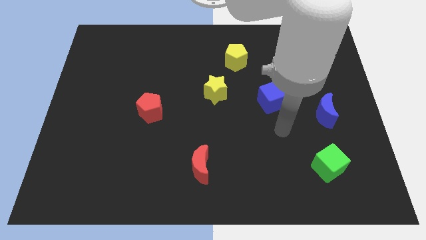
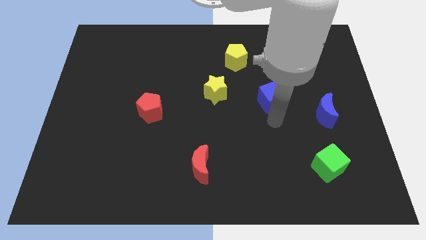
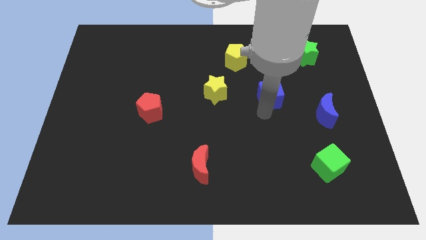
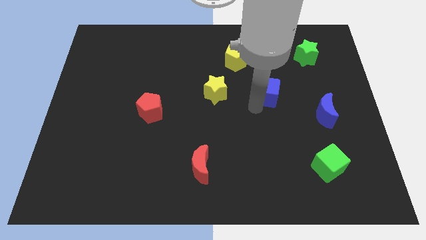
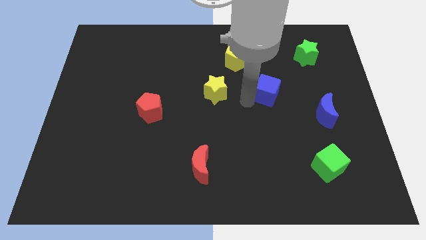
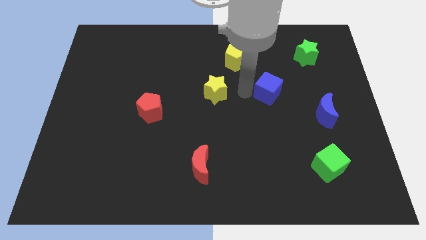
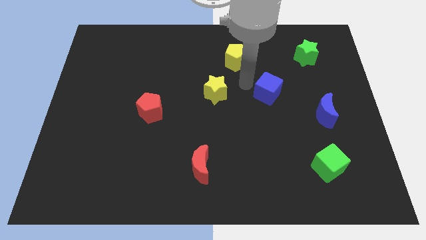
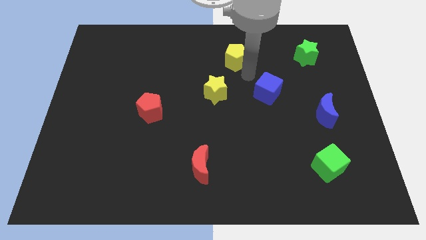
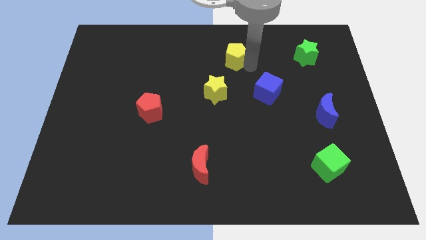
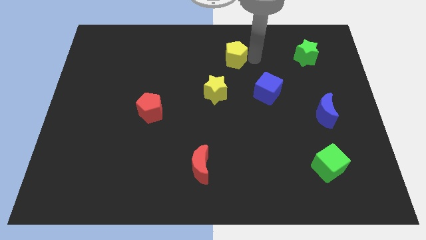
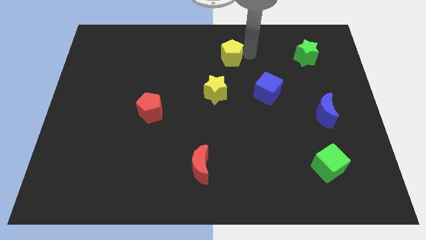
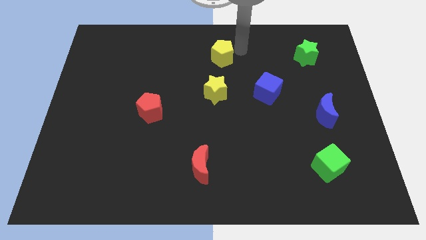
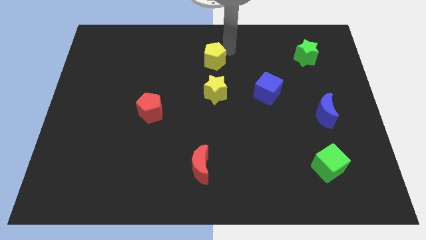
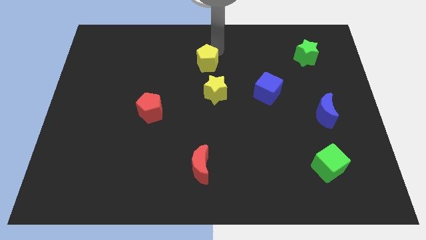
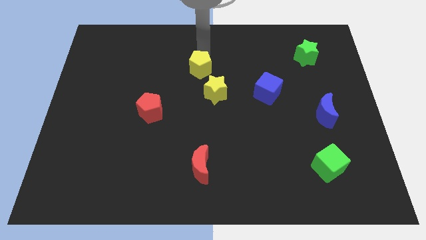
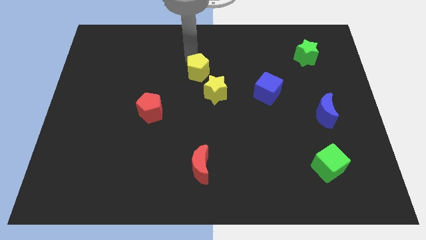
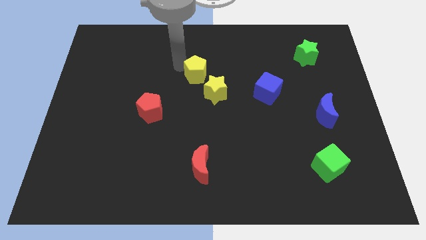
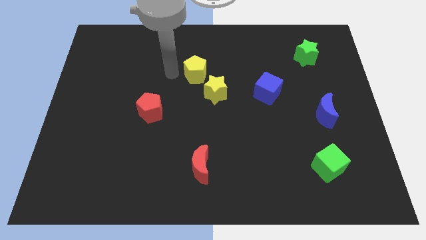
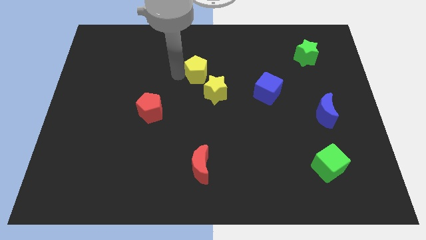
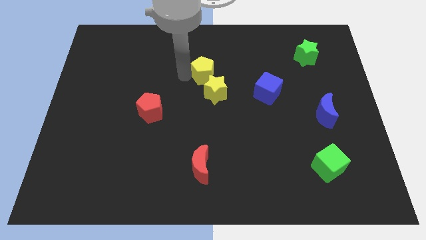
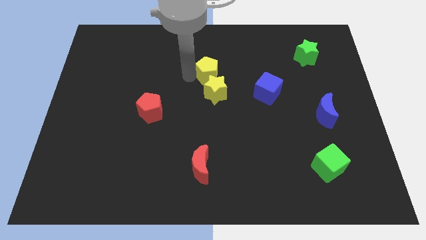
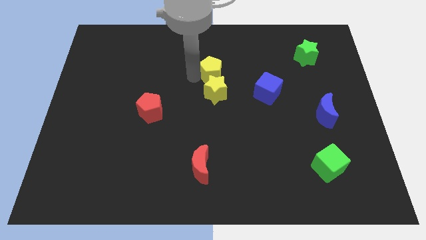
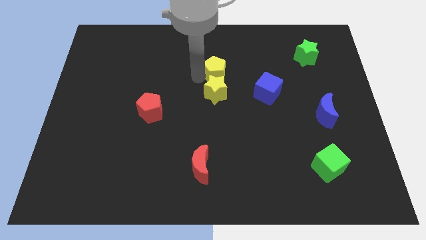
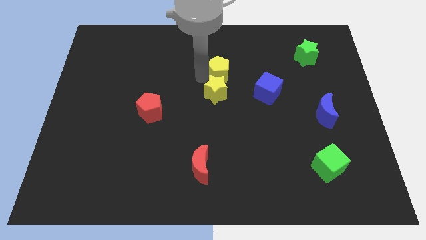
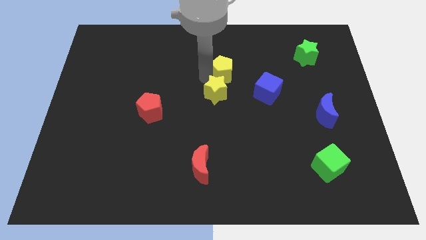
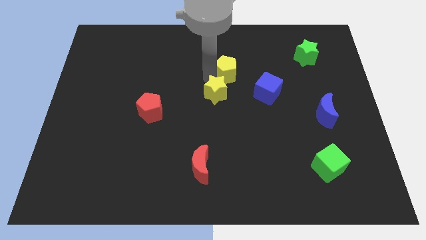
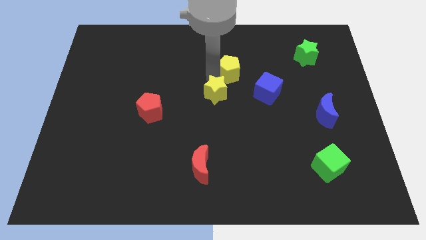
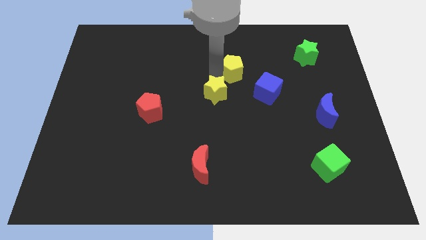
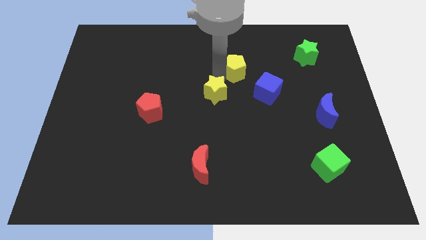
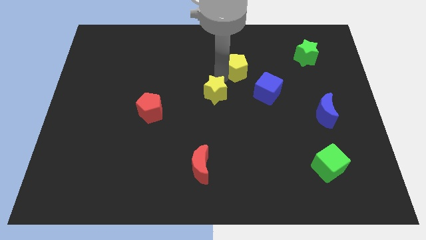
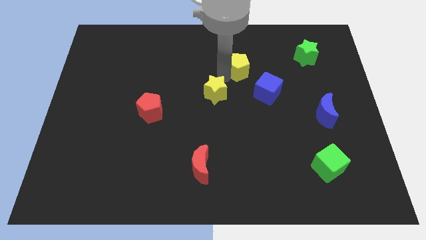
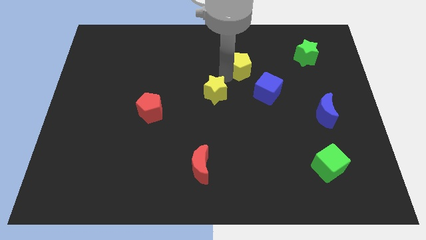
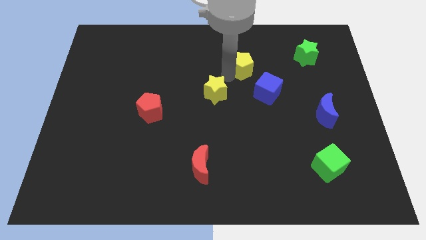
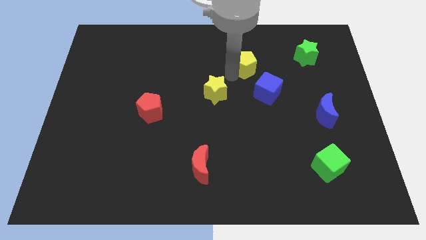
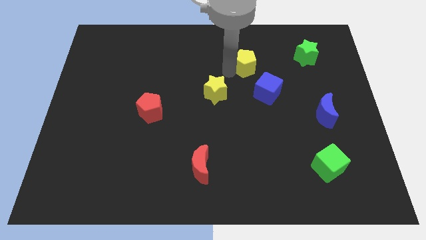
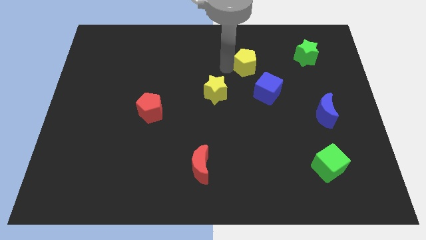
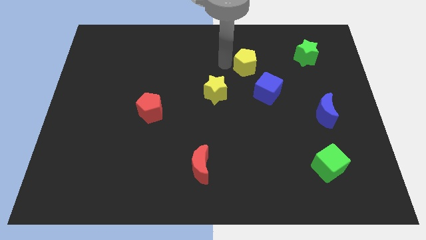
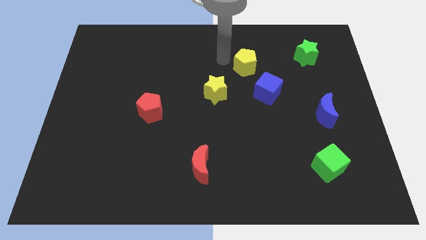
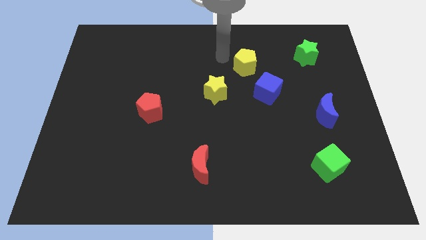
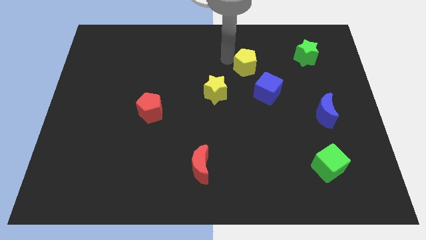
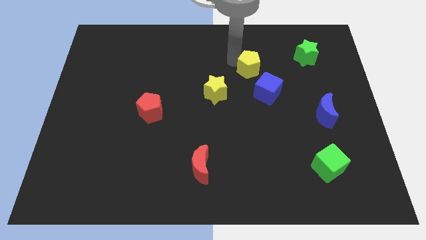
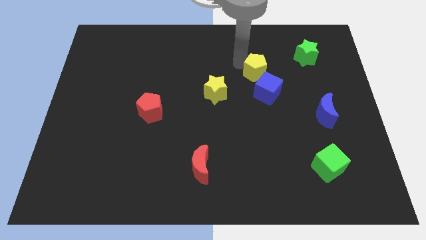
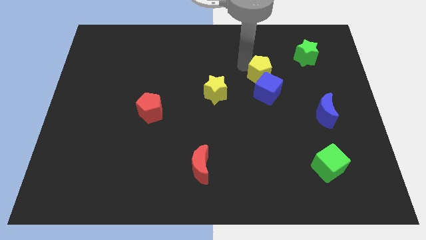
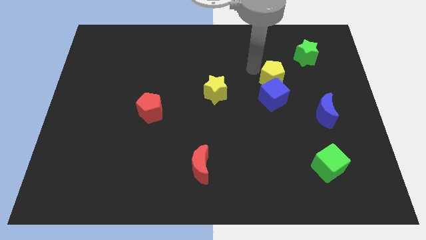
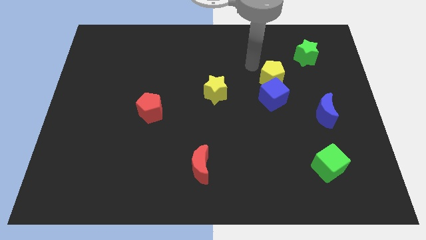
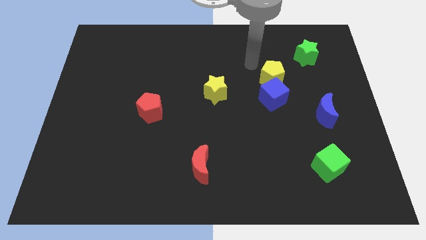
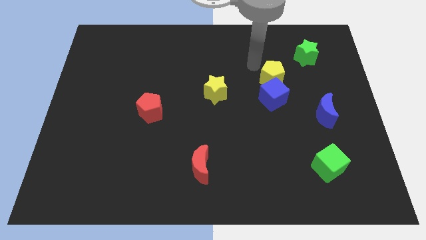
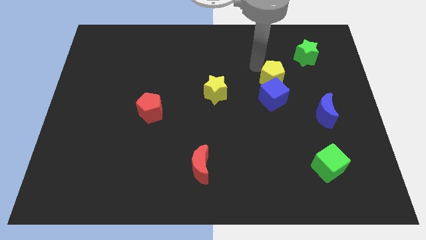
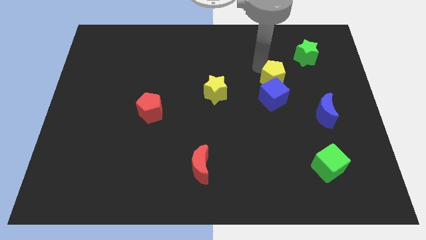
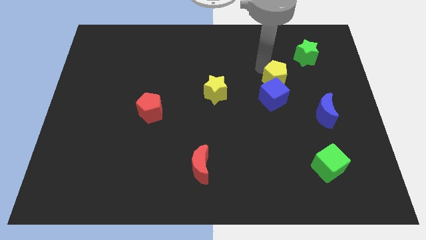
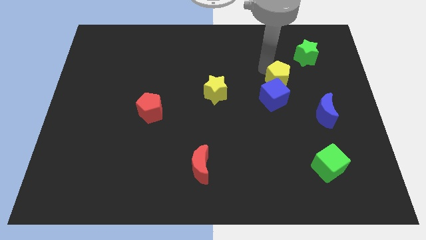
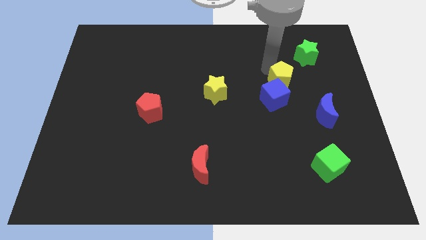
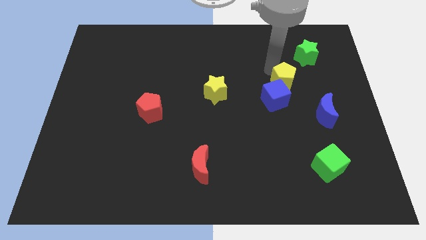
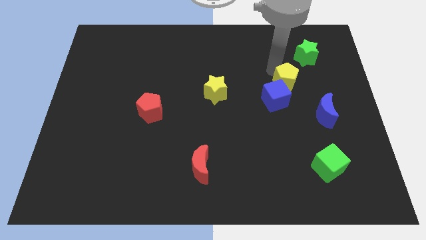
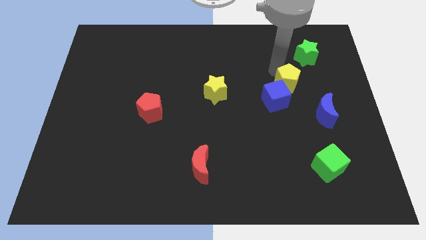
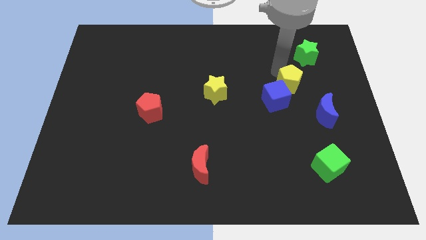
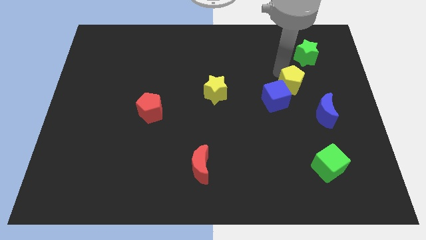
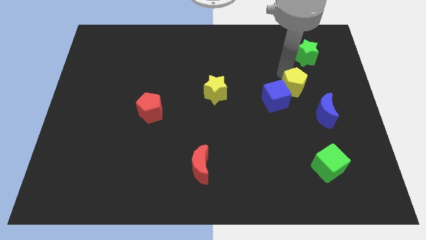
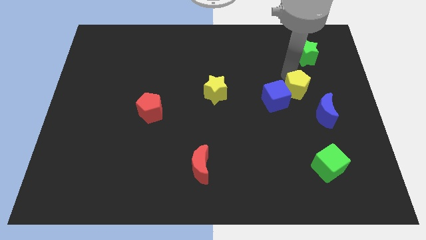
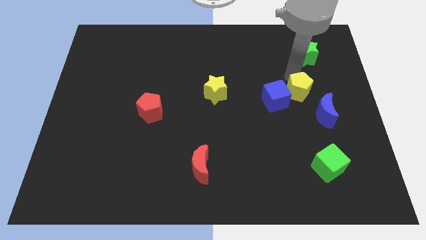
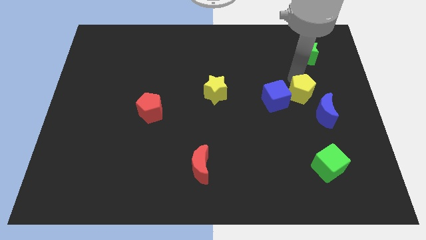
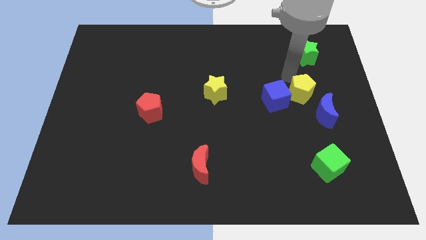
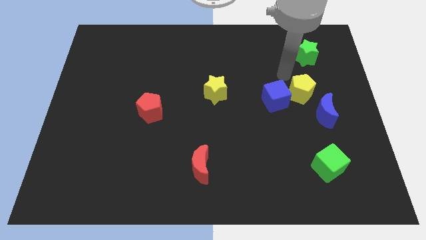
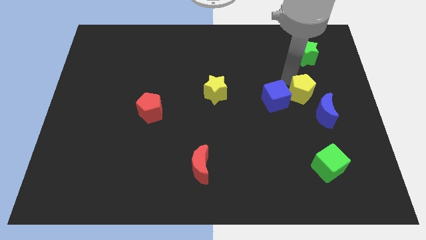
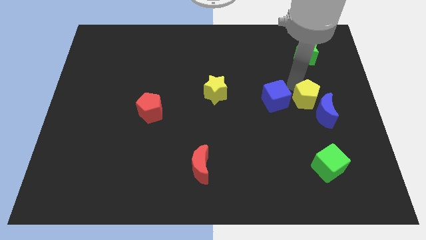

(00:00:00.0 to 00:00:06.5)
move the yellow pentagon to the blue moon

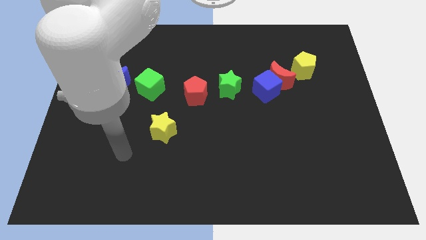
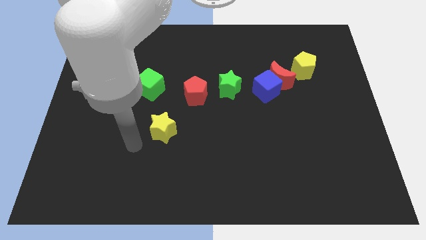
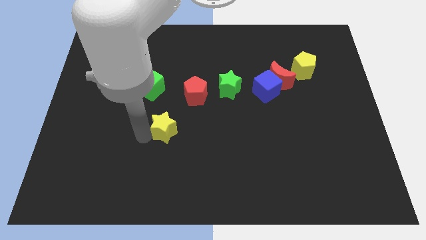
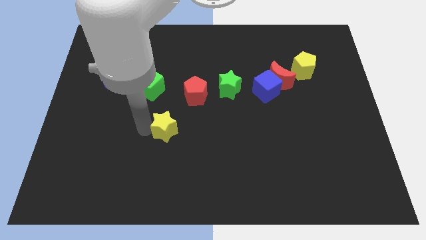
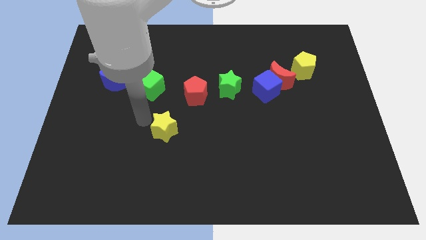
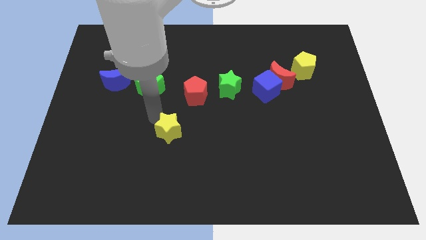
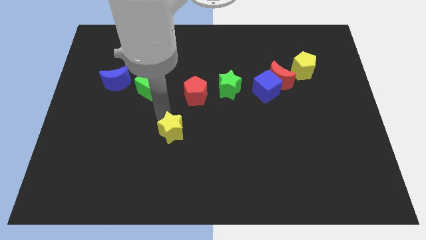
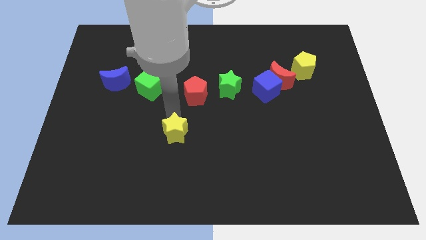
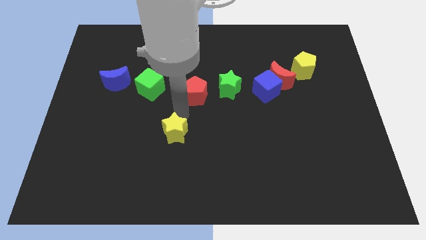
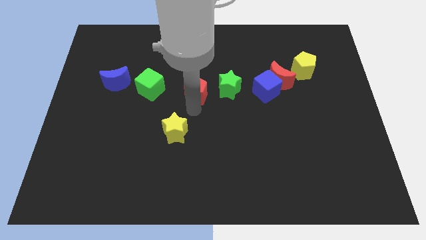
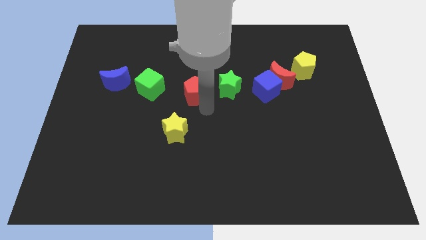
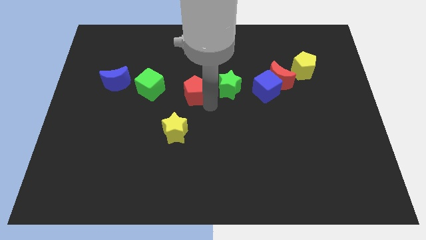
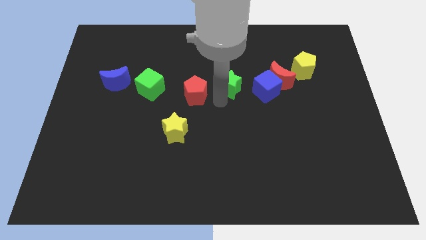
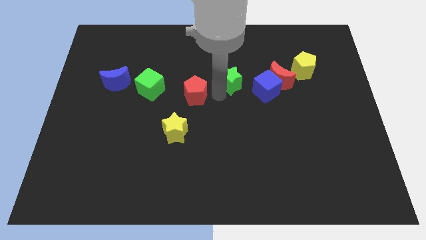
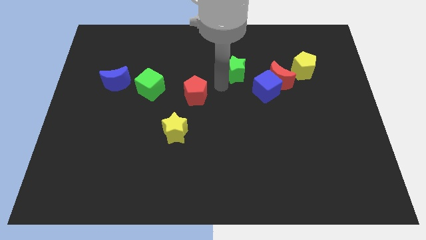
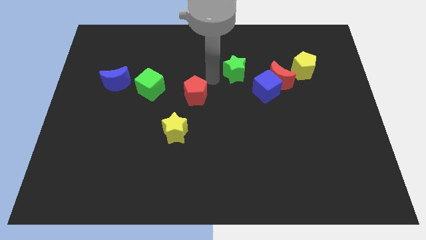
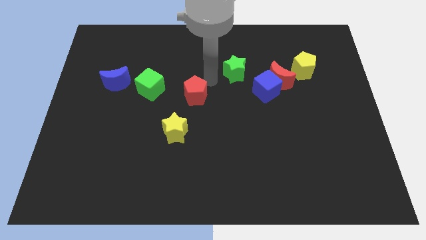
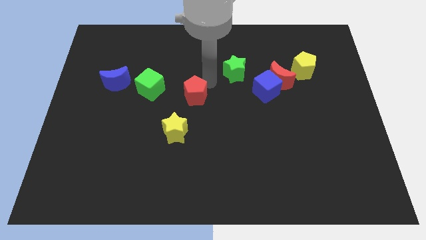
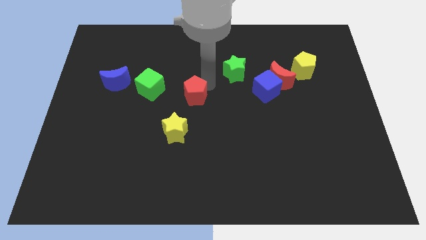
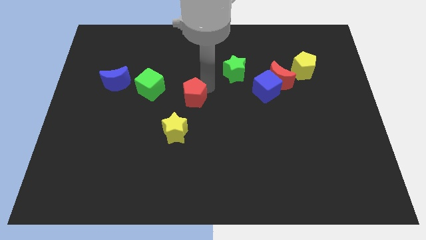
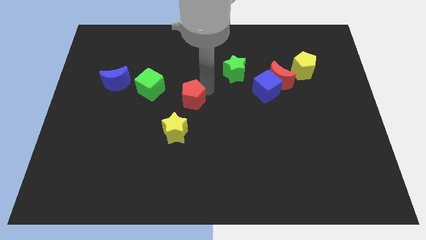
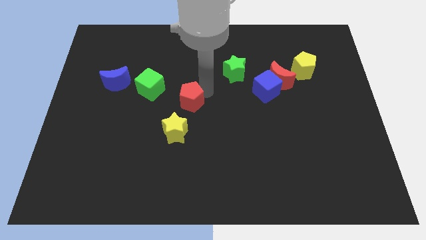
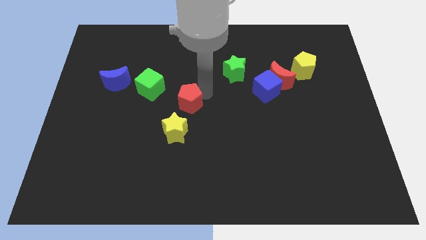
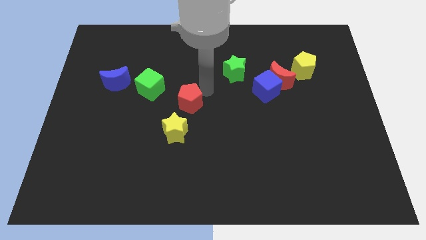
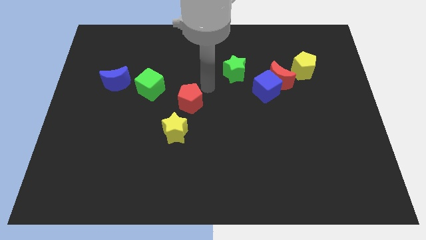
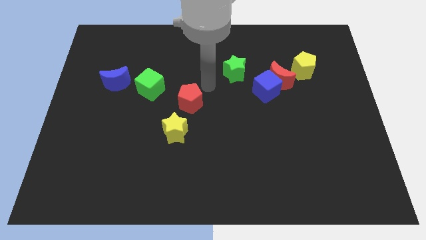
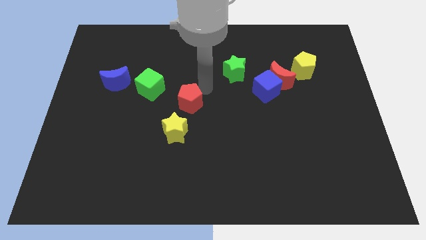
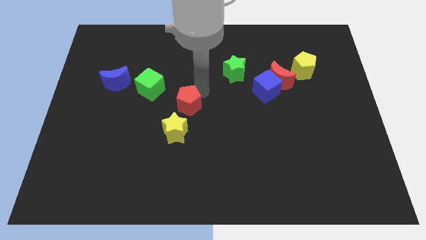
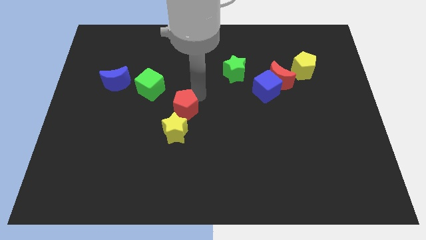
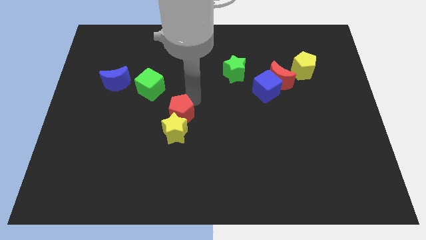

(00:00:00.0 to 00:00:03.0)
put the red pentagon towards the yellow star
